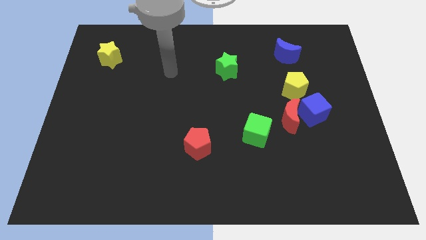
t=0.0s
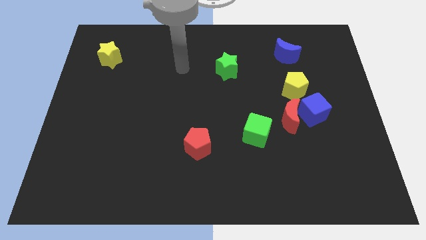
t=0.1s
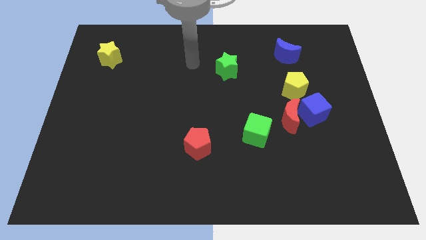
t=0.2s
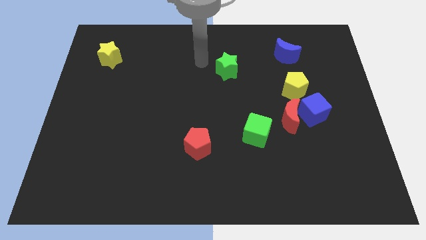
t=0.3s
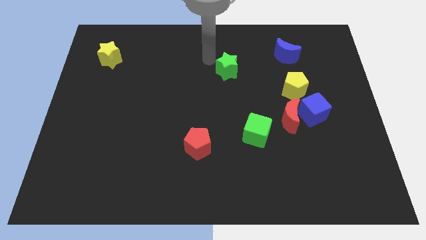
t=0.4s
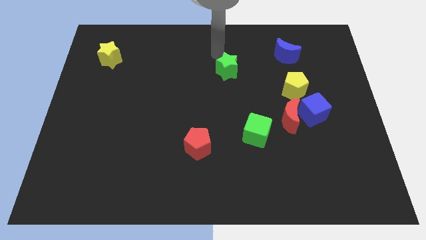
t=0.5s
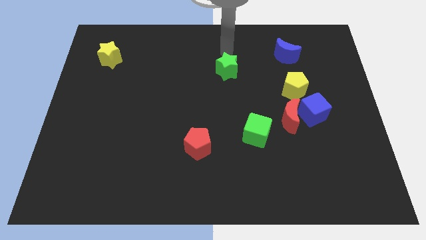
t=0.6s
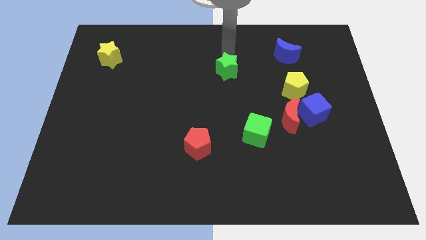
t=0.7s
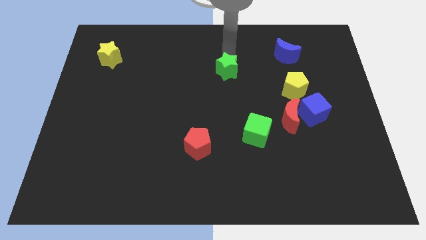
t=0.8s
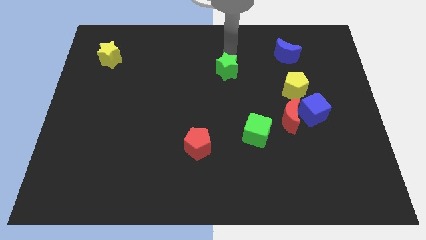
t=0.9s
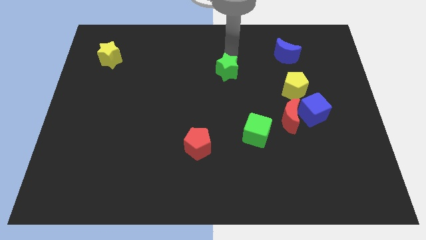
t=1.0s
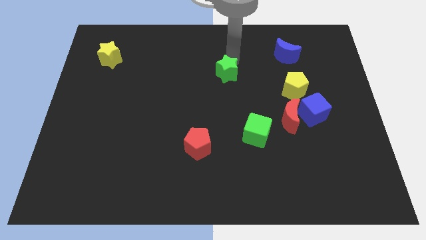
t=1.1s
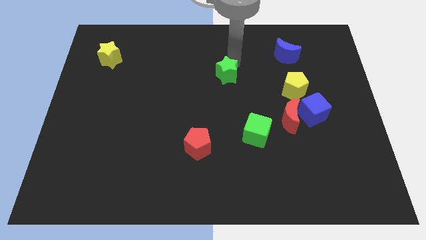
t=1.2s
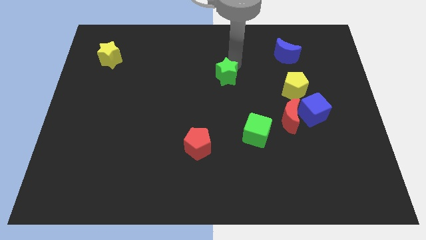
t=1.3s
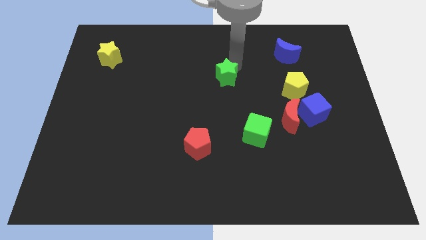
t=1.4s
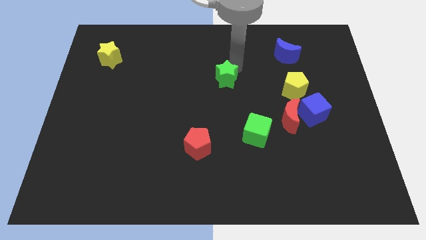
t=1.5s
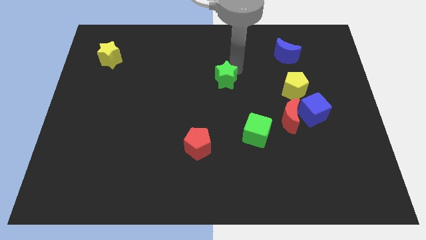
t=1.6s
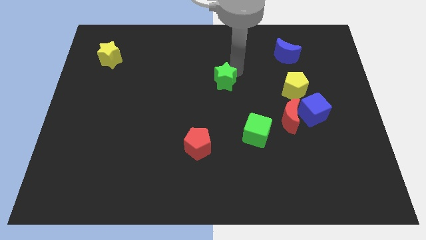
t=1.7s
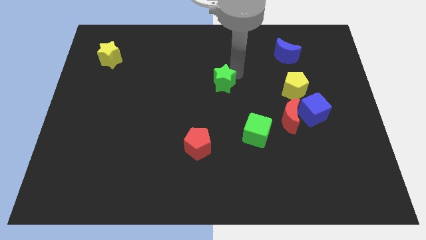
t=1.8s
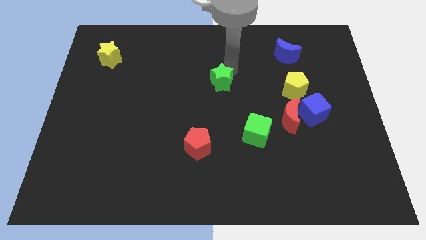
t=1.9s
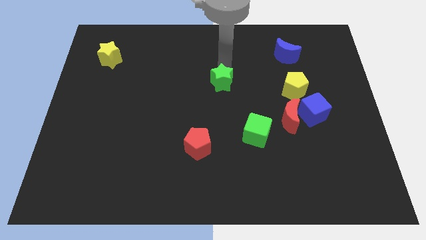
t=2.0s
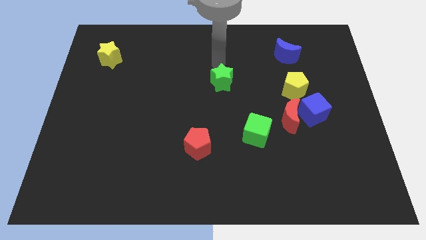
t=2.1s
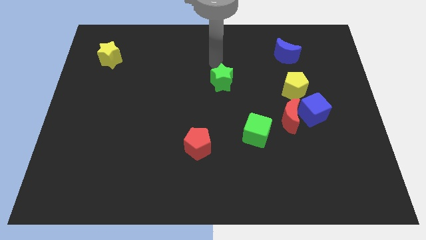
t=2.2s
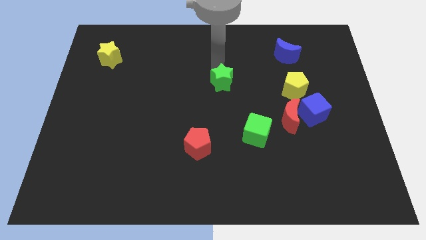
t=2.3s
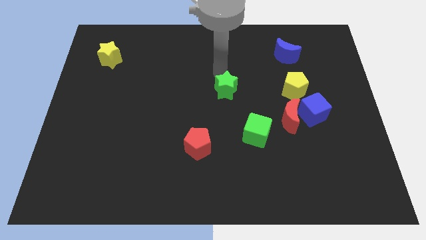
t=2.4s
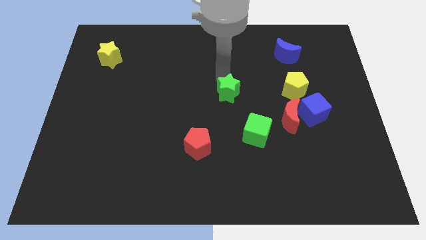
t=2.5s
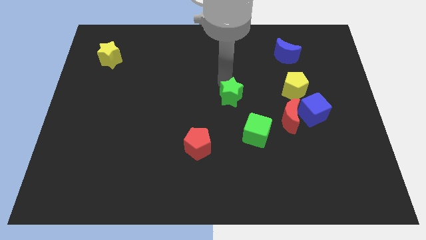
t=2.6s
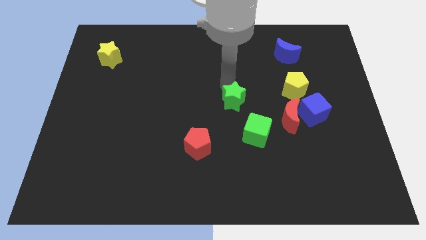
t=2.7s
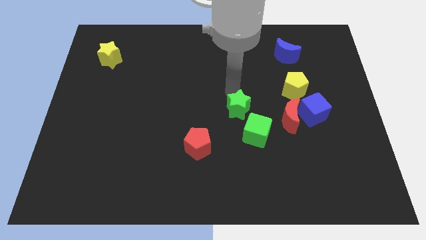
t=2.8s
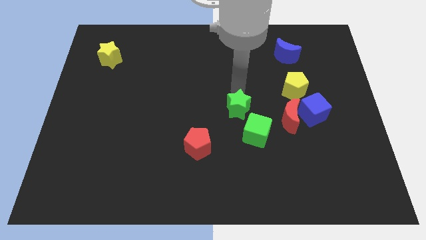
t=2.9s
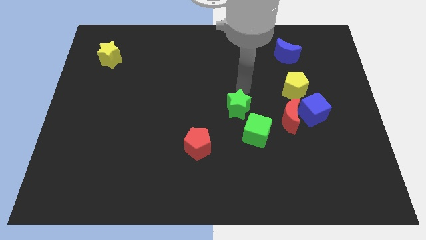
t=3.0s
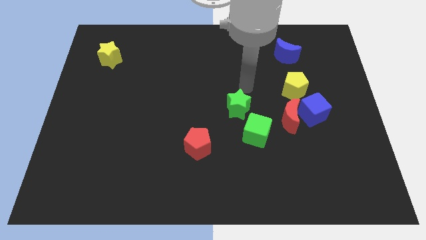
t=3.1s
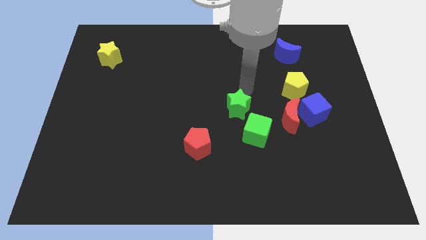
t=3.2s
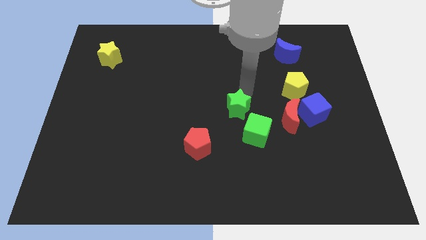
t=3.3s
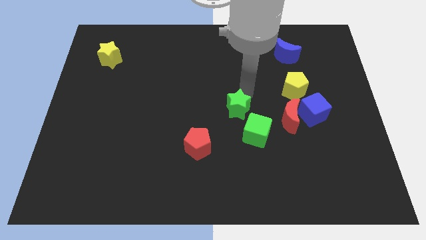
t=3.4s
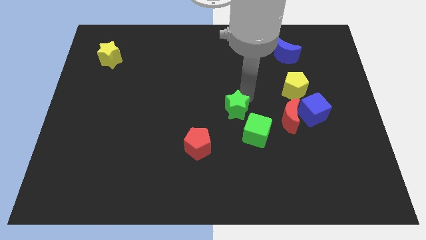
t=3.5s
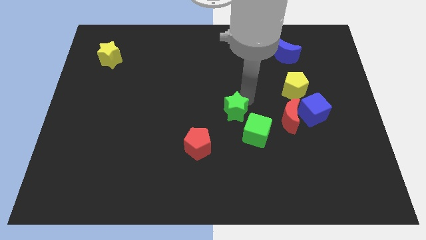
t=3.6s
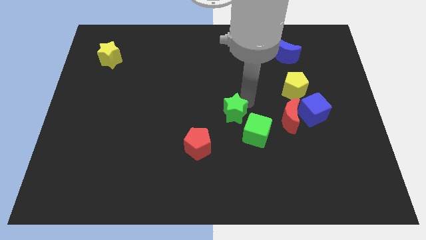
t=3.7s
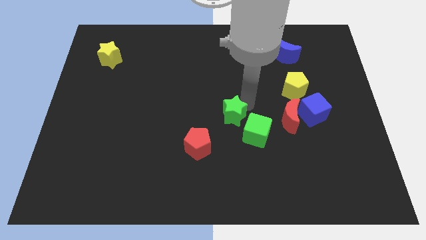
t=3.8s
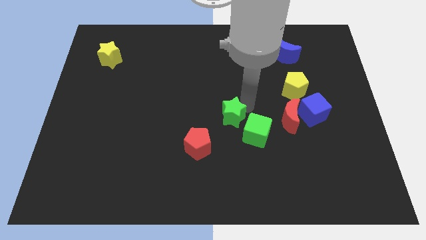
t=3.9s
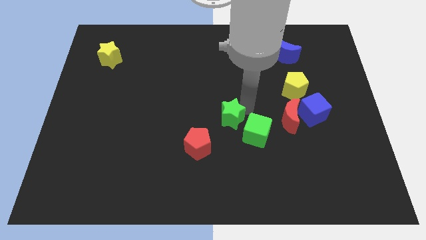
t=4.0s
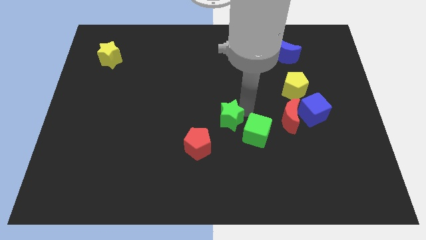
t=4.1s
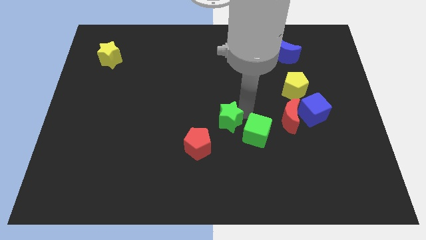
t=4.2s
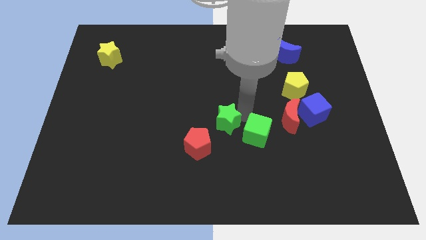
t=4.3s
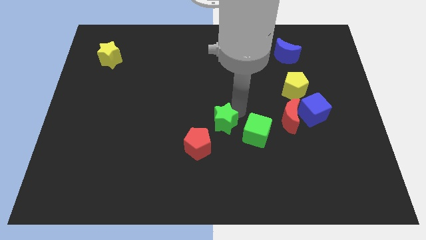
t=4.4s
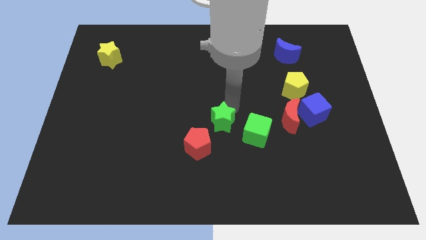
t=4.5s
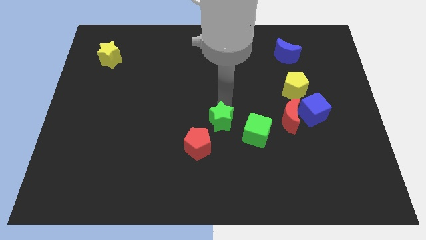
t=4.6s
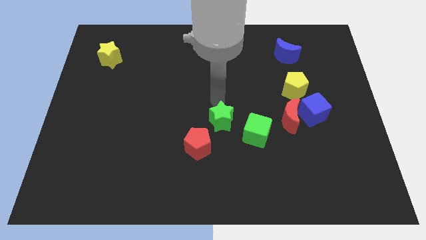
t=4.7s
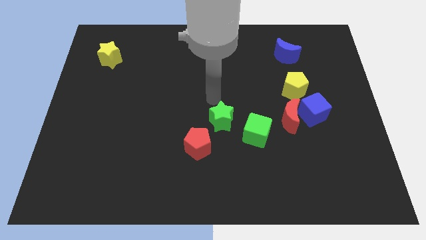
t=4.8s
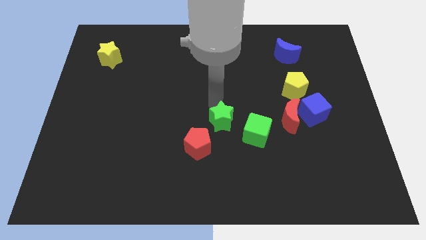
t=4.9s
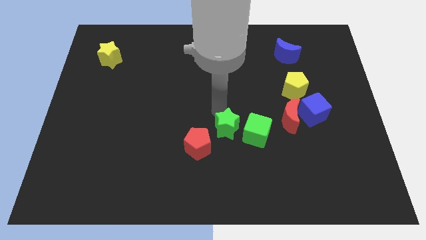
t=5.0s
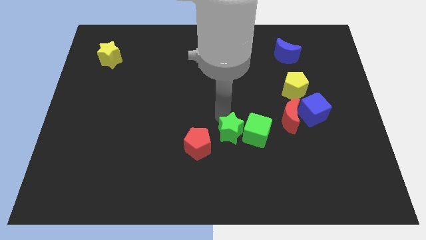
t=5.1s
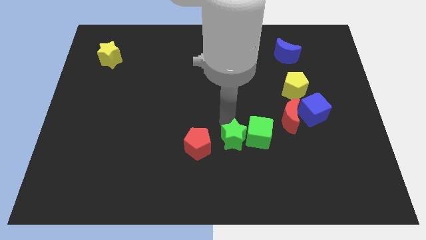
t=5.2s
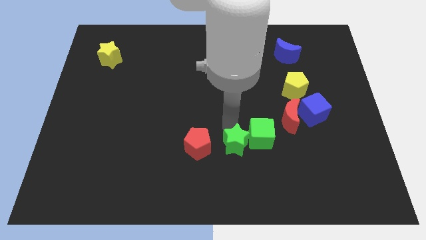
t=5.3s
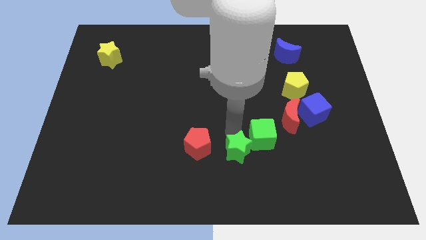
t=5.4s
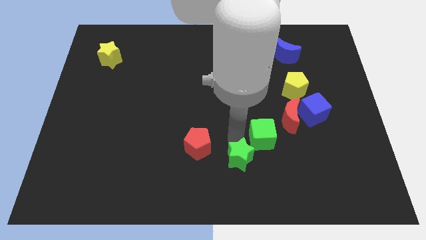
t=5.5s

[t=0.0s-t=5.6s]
move the green star to the bottom side
